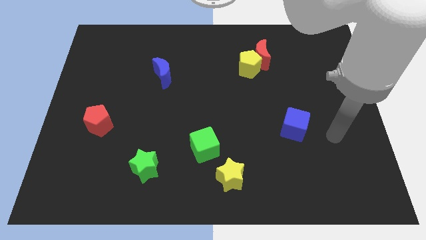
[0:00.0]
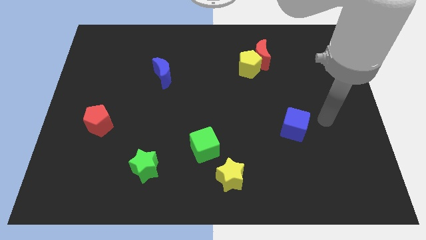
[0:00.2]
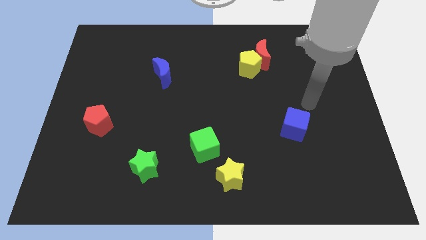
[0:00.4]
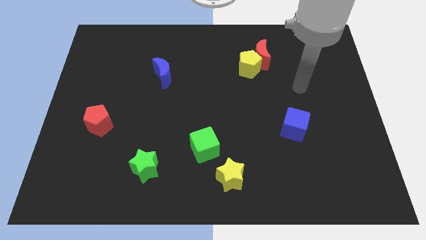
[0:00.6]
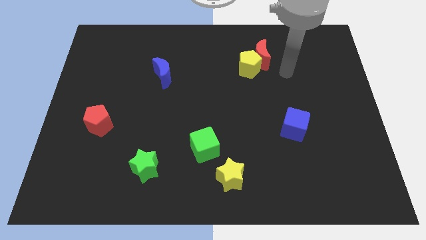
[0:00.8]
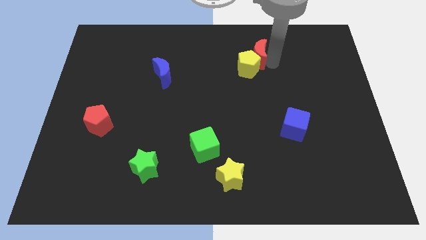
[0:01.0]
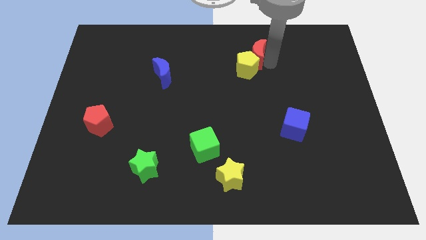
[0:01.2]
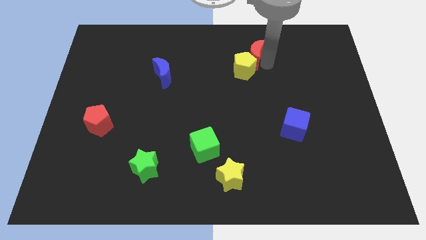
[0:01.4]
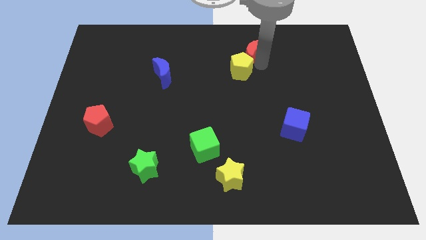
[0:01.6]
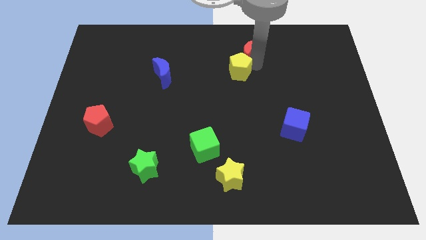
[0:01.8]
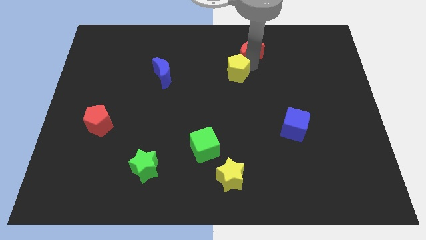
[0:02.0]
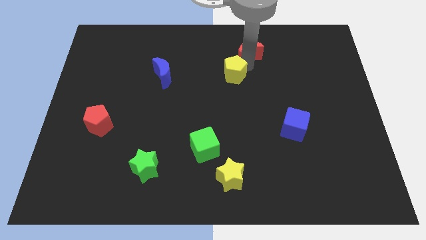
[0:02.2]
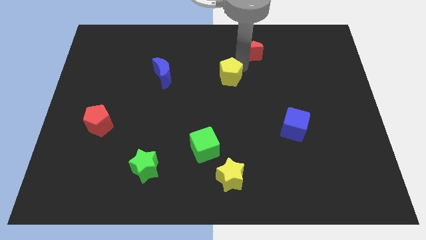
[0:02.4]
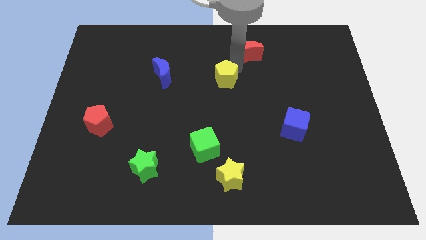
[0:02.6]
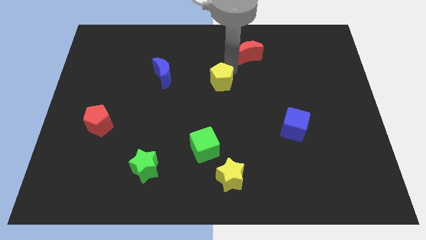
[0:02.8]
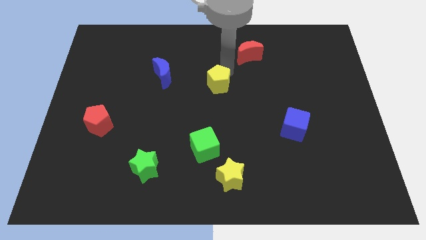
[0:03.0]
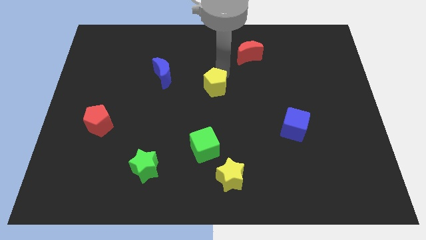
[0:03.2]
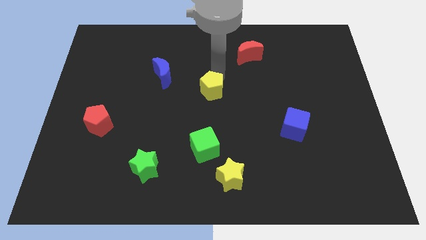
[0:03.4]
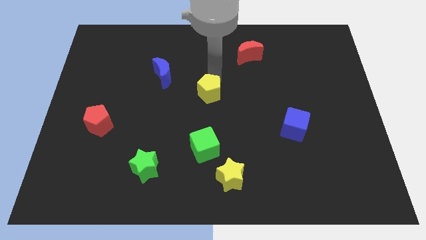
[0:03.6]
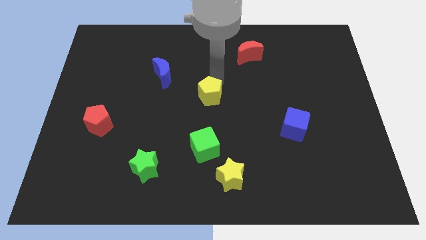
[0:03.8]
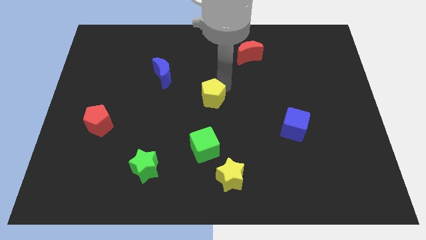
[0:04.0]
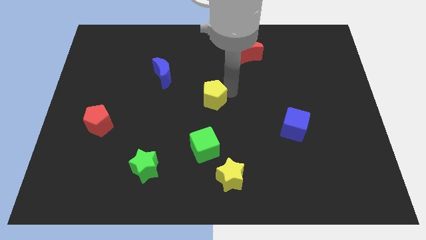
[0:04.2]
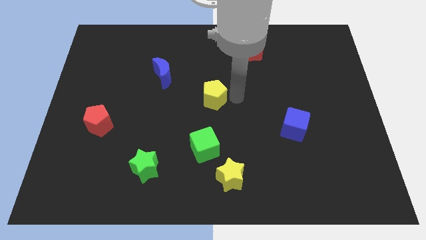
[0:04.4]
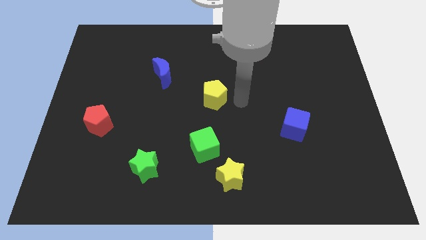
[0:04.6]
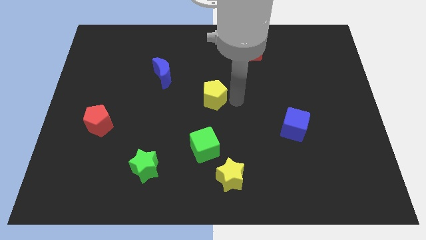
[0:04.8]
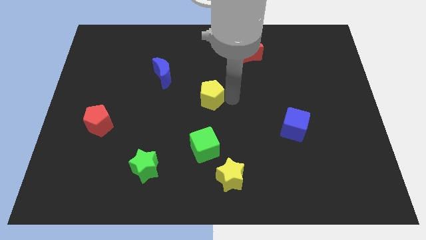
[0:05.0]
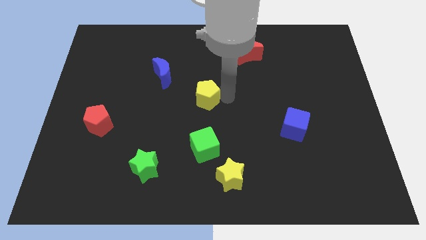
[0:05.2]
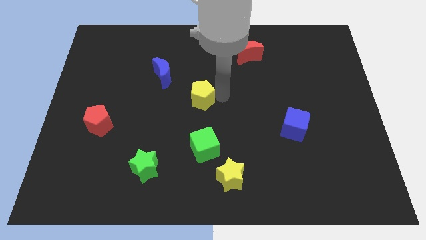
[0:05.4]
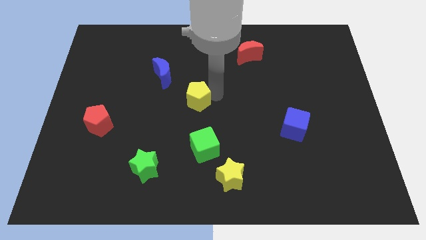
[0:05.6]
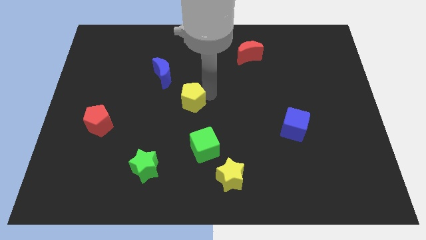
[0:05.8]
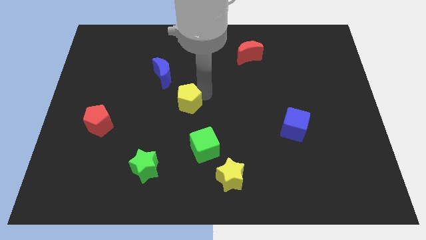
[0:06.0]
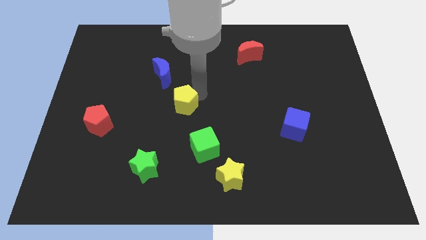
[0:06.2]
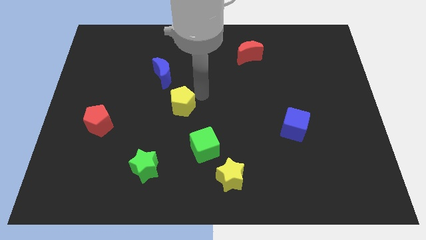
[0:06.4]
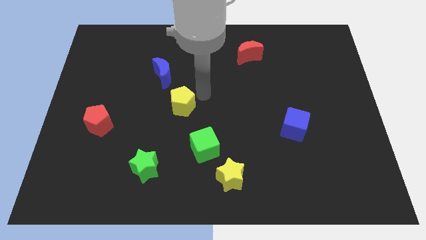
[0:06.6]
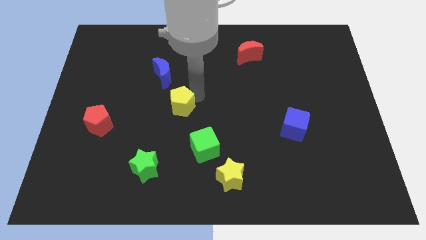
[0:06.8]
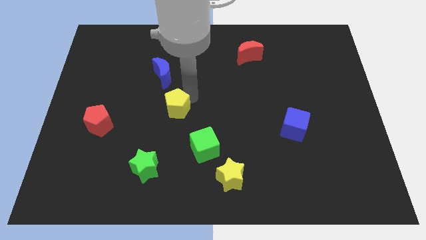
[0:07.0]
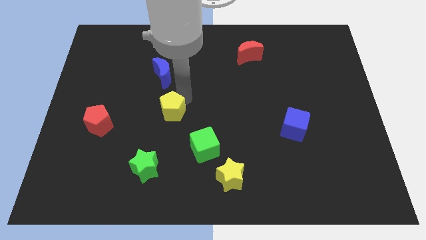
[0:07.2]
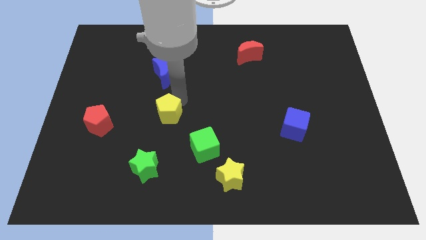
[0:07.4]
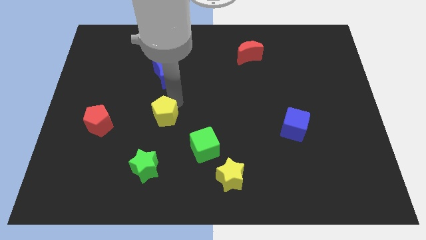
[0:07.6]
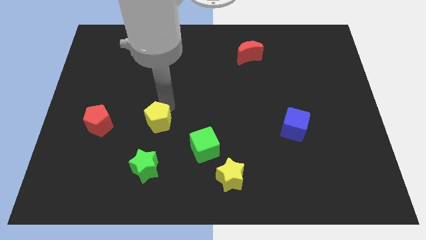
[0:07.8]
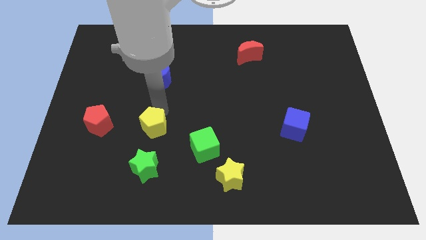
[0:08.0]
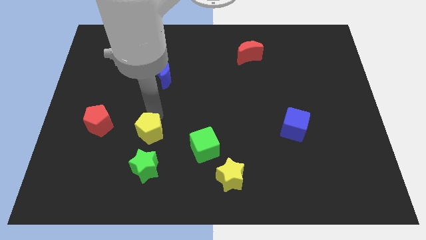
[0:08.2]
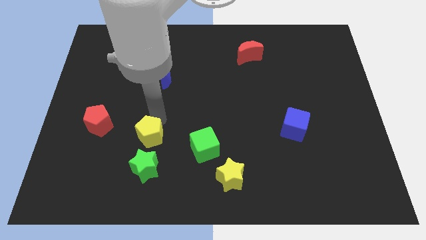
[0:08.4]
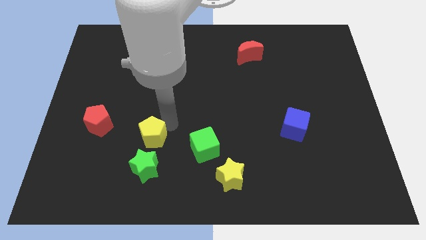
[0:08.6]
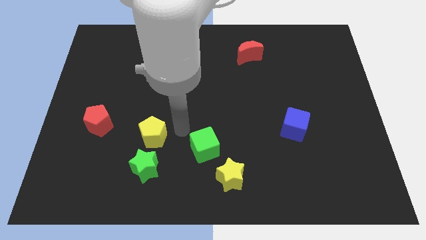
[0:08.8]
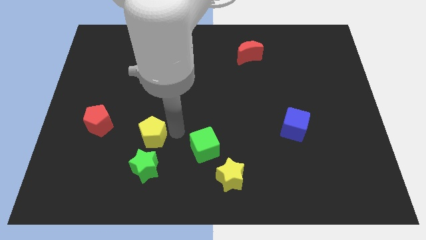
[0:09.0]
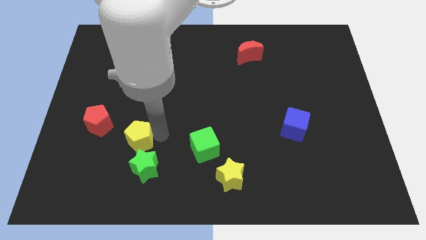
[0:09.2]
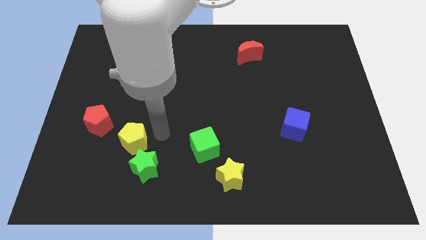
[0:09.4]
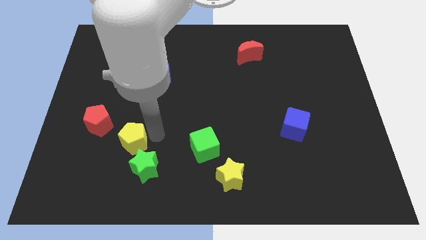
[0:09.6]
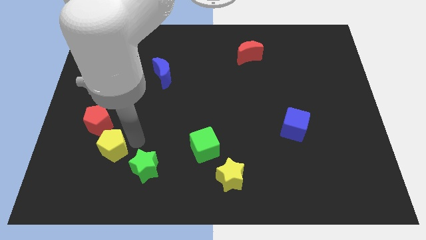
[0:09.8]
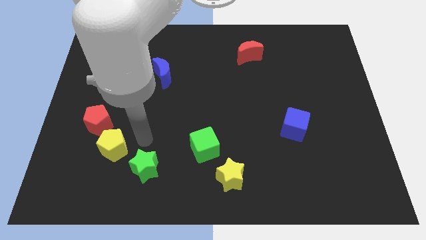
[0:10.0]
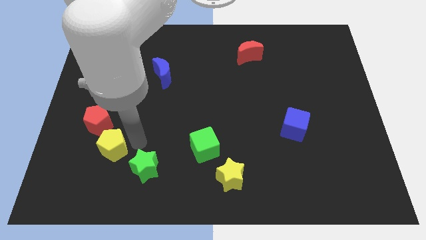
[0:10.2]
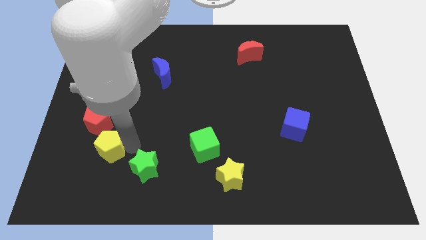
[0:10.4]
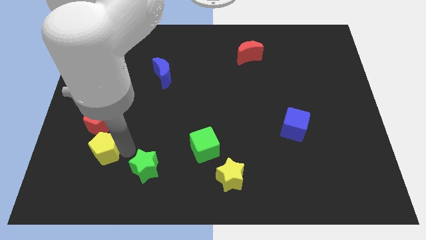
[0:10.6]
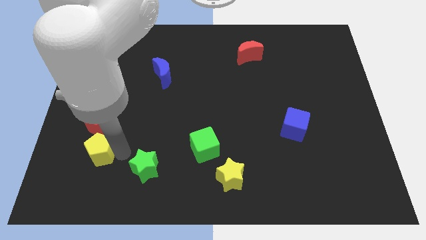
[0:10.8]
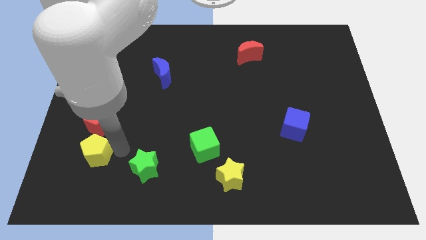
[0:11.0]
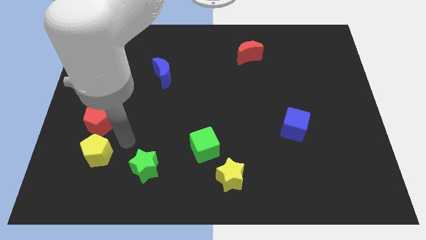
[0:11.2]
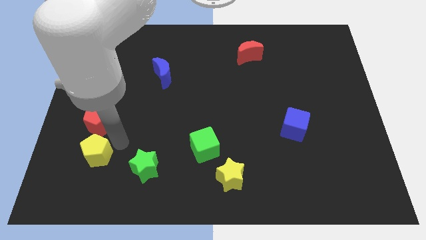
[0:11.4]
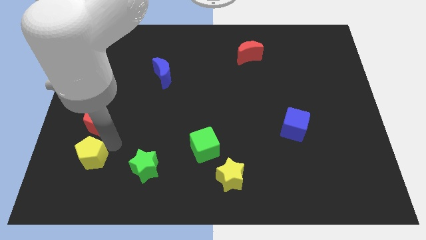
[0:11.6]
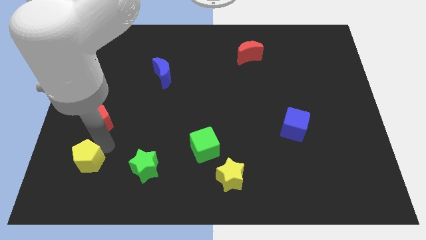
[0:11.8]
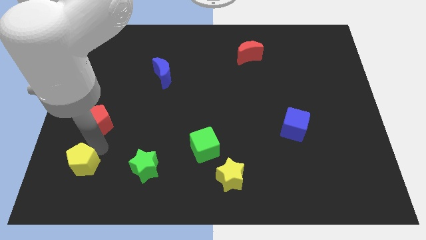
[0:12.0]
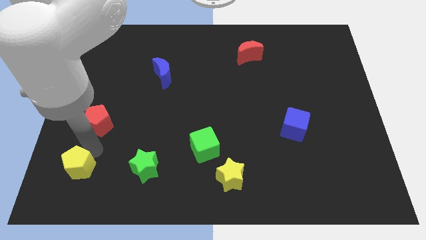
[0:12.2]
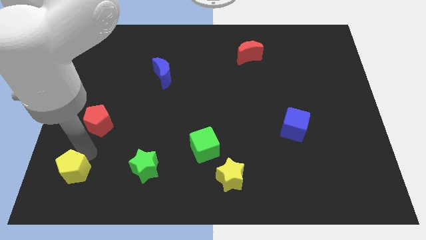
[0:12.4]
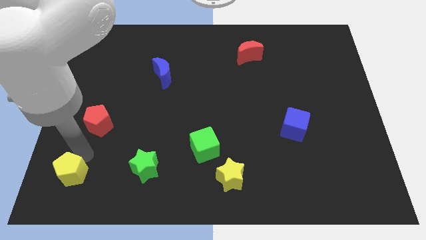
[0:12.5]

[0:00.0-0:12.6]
put the yellow pentagon to the bottom left of the board
